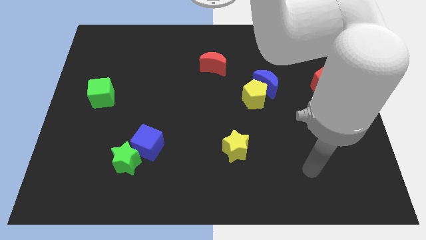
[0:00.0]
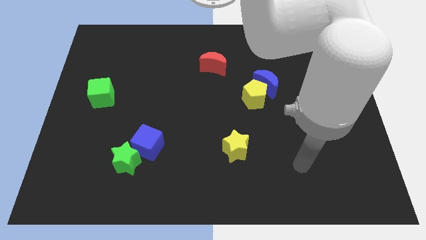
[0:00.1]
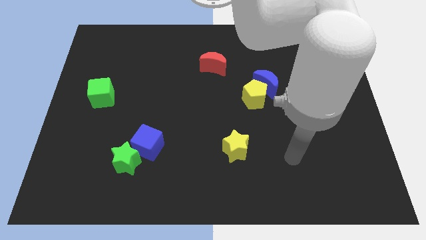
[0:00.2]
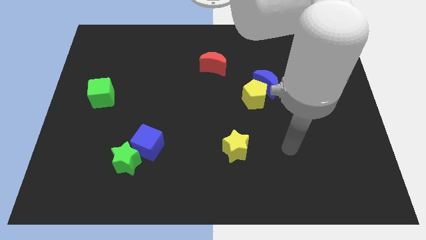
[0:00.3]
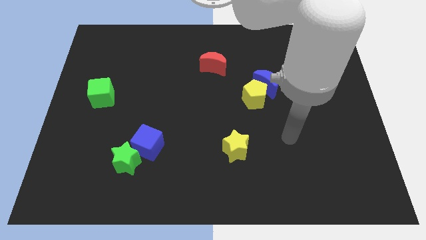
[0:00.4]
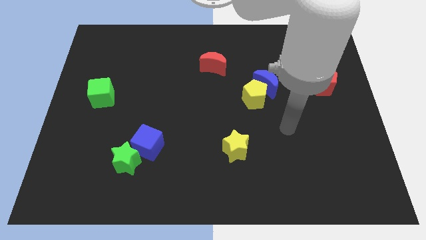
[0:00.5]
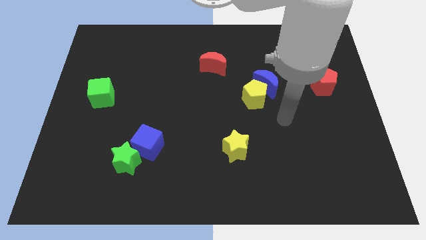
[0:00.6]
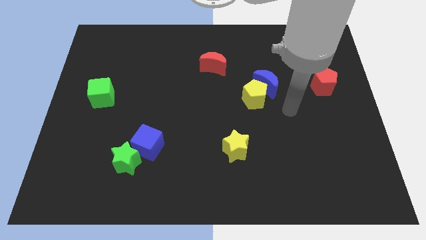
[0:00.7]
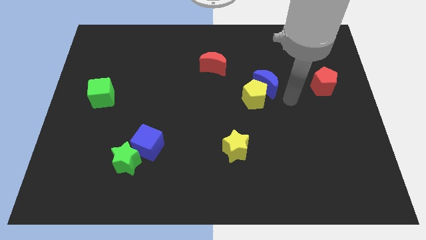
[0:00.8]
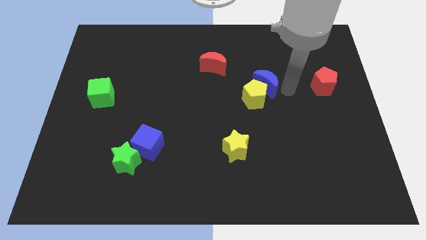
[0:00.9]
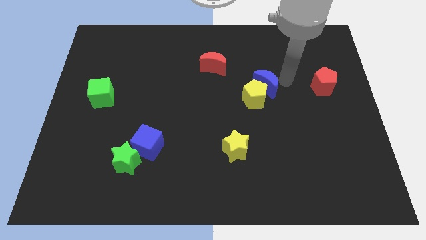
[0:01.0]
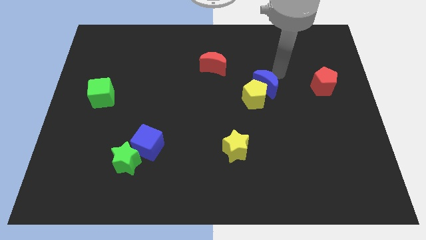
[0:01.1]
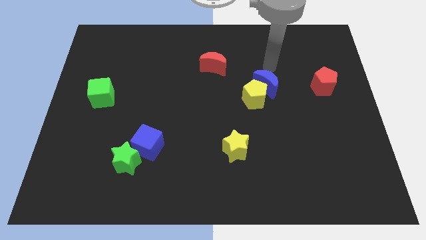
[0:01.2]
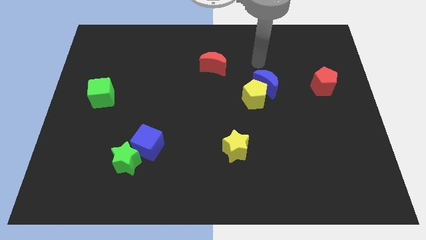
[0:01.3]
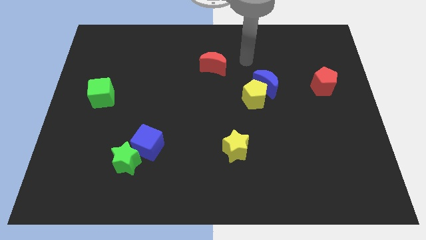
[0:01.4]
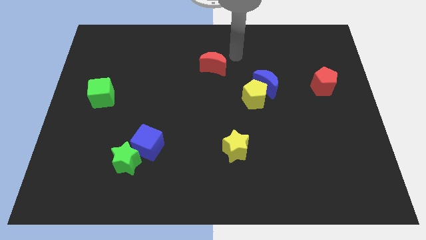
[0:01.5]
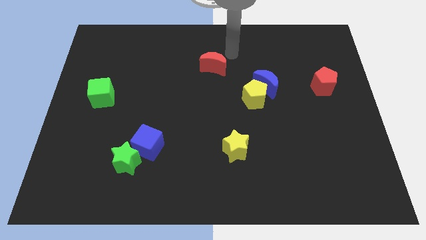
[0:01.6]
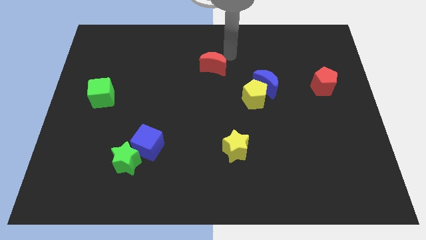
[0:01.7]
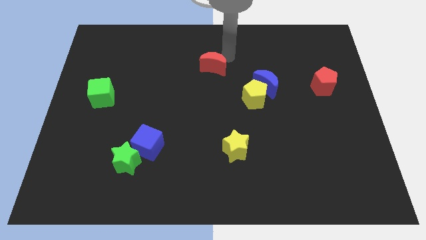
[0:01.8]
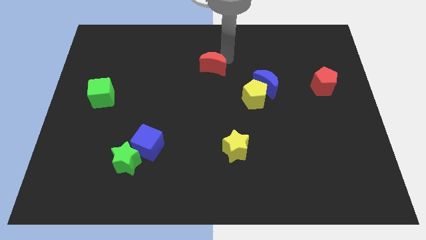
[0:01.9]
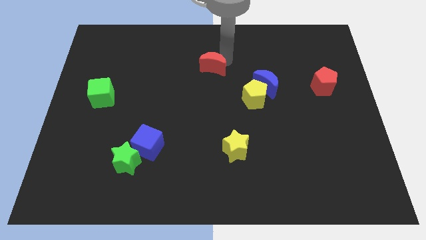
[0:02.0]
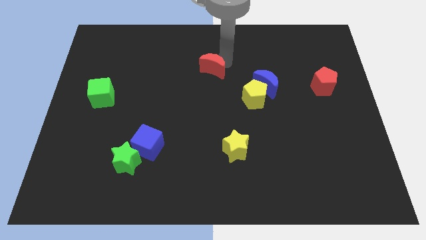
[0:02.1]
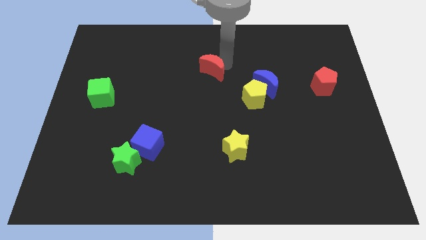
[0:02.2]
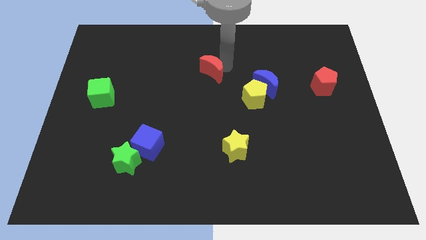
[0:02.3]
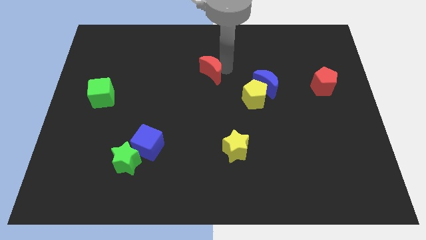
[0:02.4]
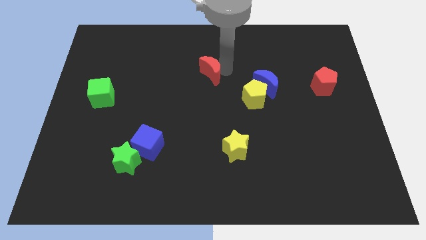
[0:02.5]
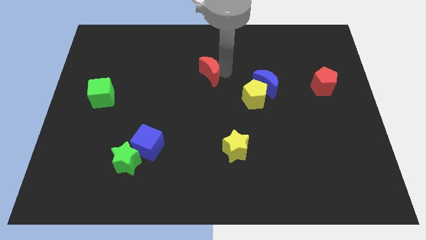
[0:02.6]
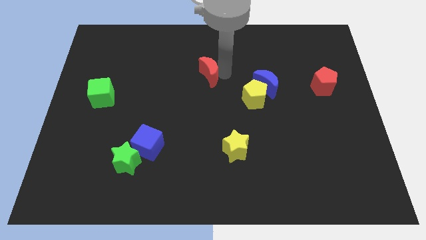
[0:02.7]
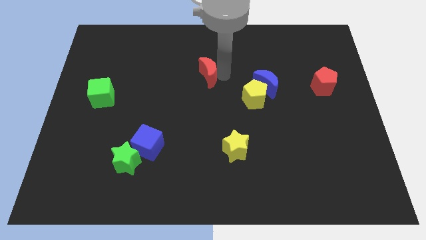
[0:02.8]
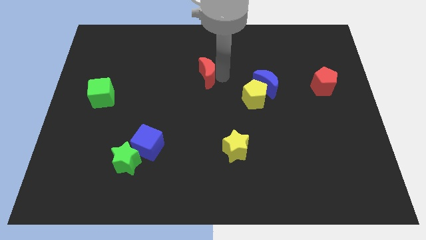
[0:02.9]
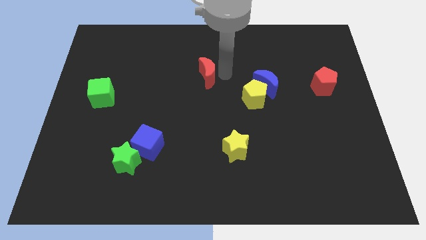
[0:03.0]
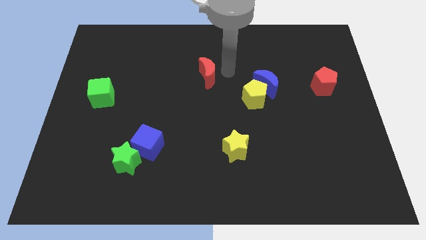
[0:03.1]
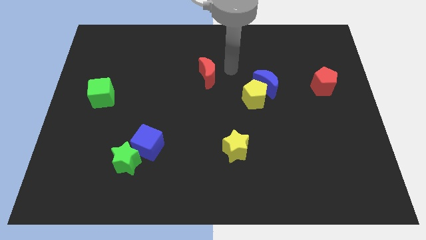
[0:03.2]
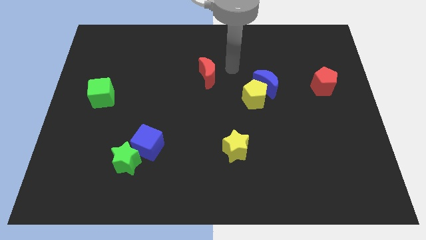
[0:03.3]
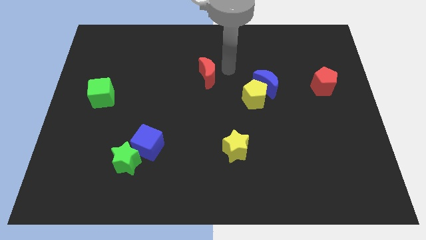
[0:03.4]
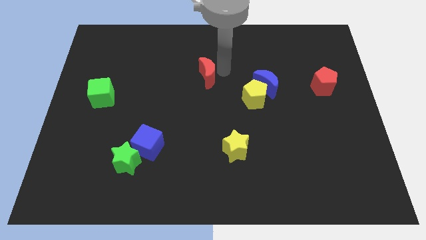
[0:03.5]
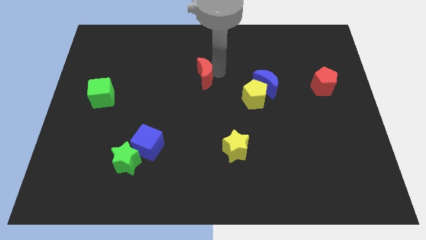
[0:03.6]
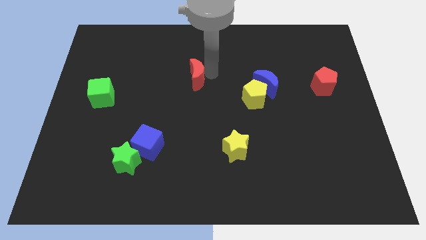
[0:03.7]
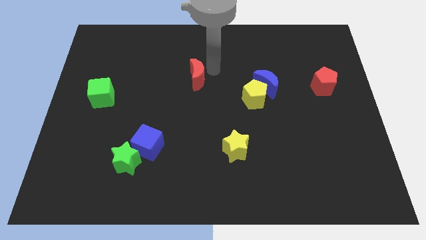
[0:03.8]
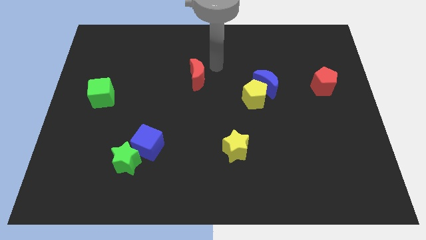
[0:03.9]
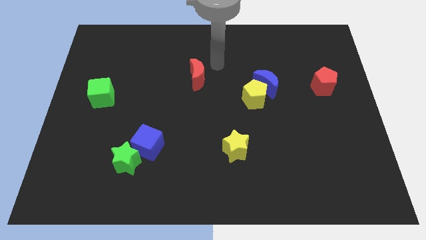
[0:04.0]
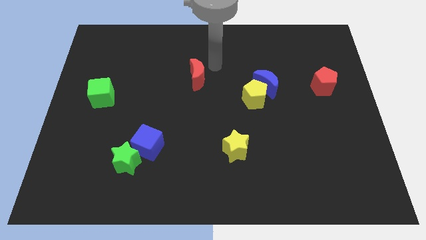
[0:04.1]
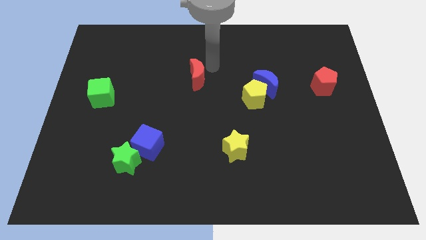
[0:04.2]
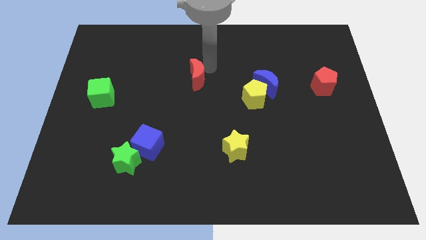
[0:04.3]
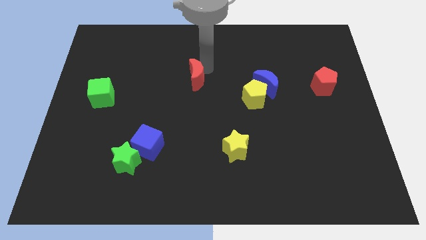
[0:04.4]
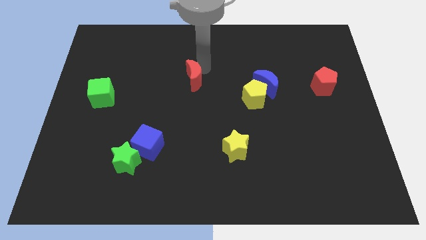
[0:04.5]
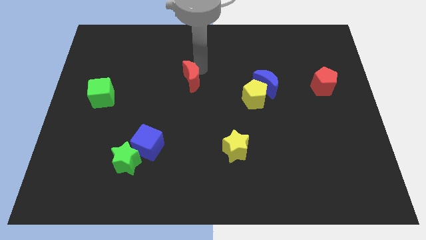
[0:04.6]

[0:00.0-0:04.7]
slightly move the red moon downwards and then to the left

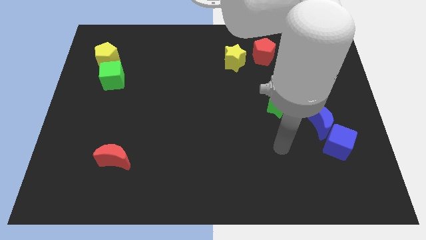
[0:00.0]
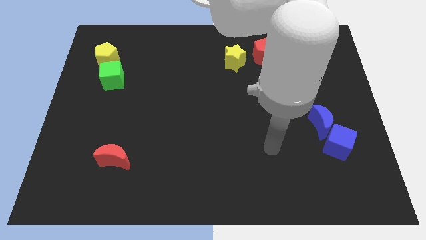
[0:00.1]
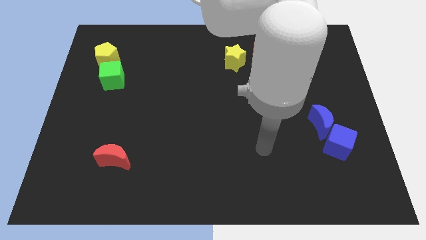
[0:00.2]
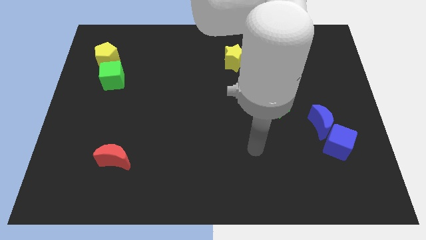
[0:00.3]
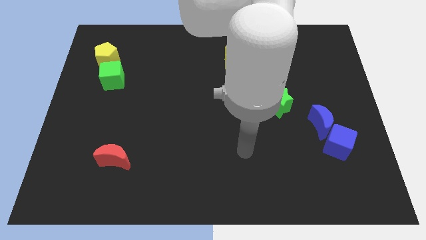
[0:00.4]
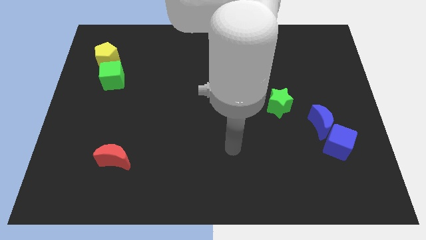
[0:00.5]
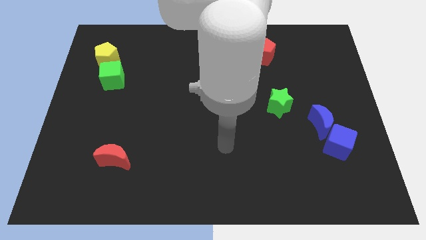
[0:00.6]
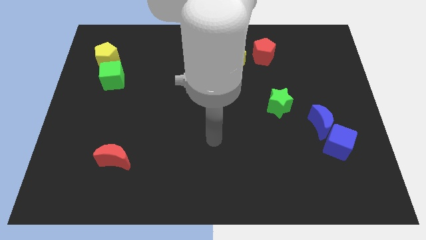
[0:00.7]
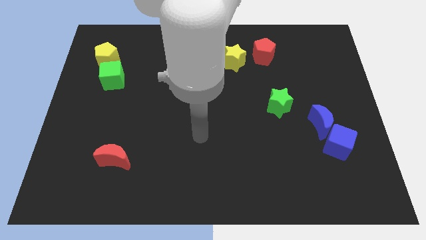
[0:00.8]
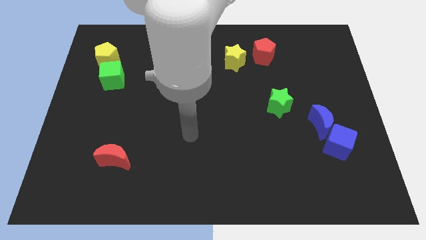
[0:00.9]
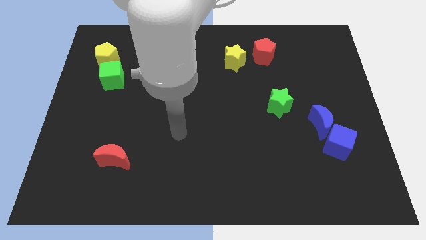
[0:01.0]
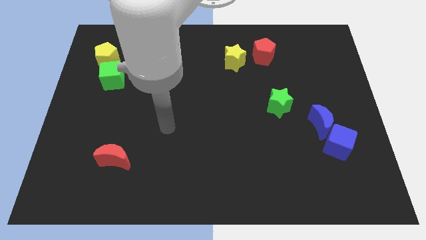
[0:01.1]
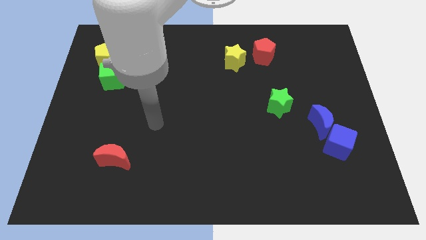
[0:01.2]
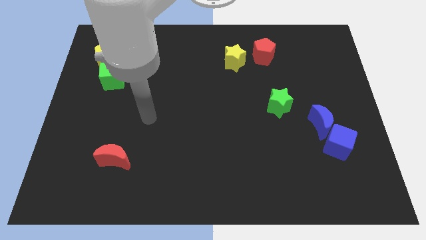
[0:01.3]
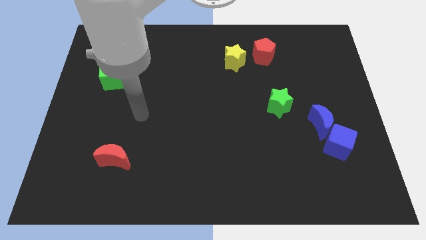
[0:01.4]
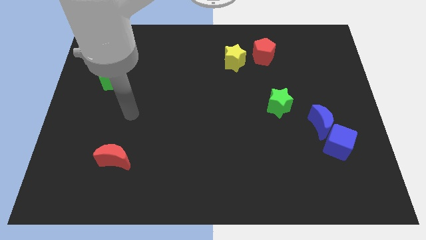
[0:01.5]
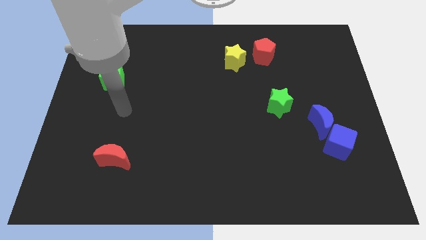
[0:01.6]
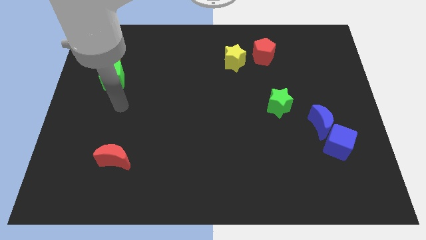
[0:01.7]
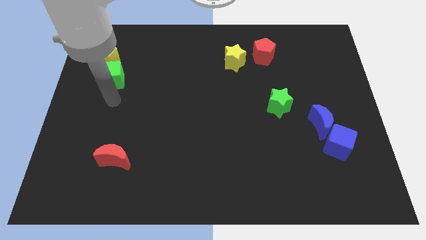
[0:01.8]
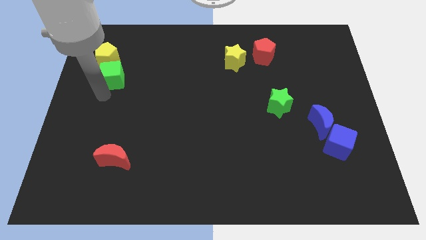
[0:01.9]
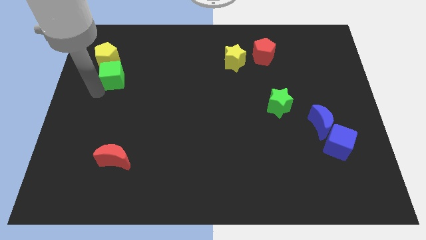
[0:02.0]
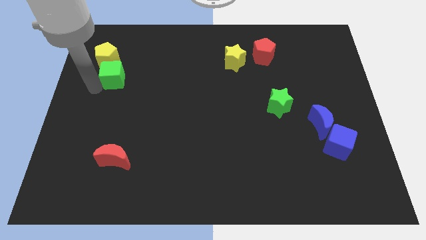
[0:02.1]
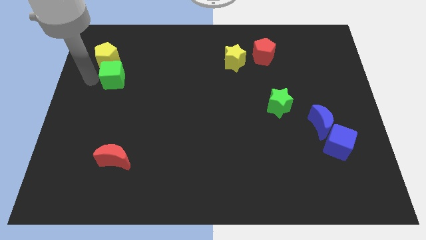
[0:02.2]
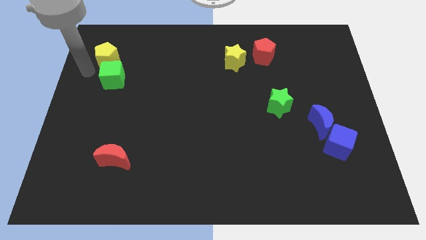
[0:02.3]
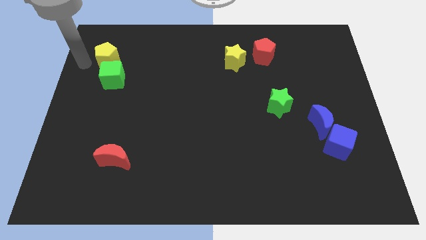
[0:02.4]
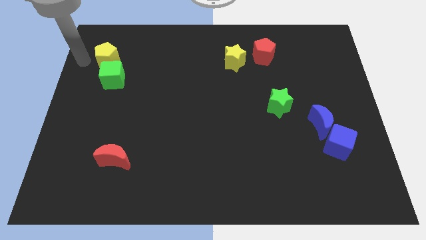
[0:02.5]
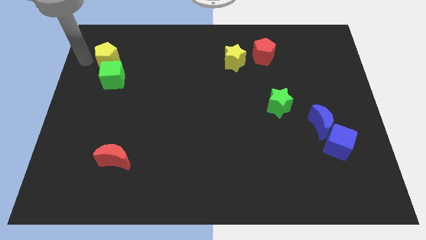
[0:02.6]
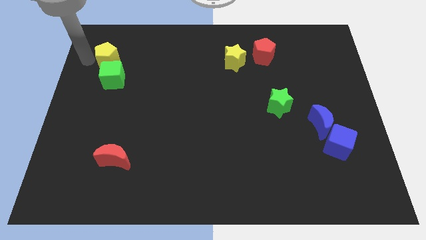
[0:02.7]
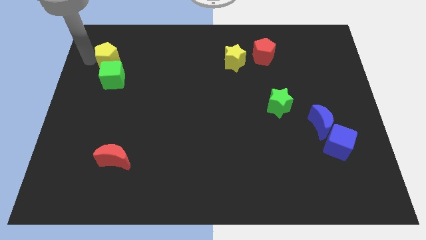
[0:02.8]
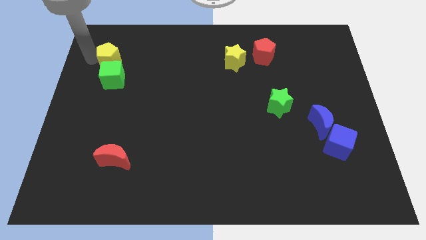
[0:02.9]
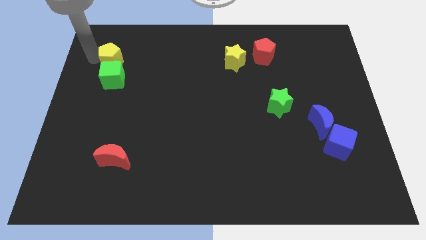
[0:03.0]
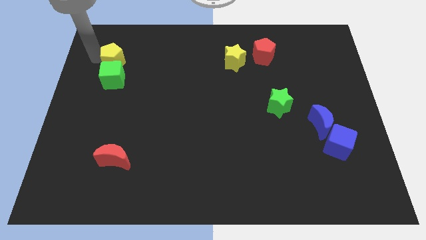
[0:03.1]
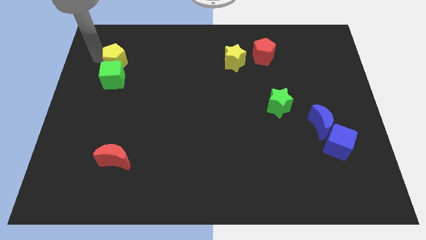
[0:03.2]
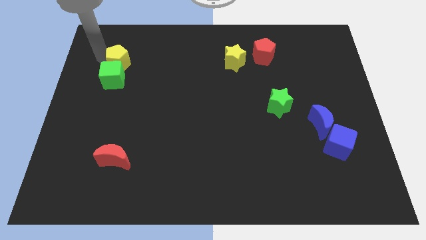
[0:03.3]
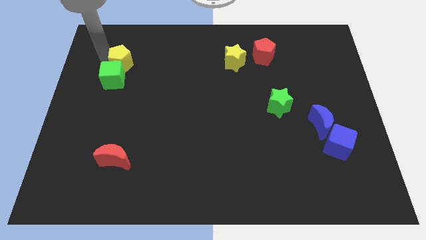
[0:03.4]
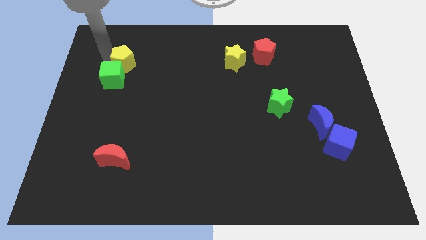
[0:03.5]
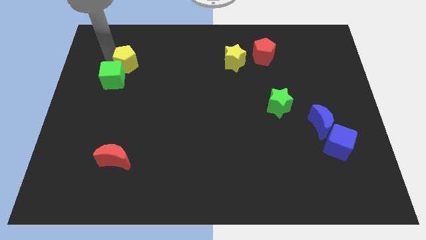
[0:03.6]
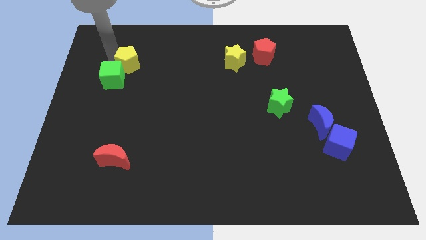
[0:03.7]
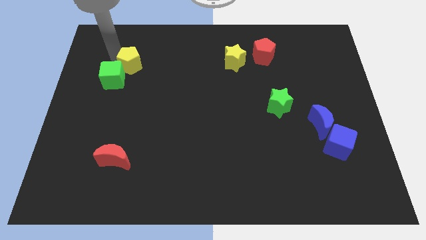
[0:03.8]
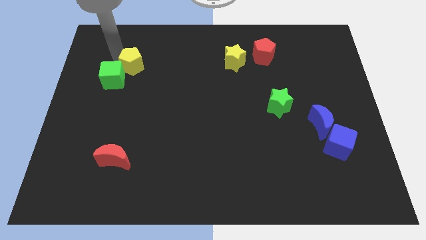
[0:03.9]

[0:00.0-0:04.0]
slide the yellow pentagon somewhat to the right

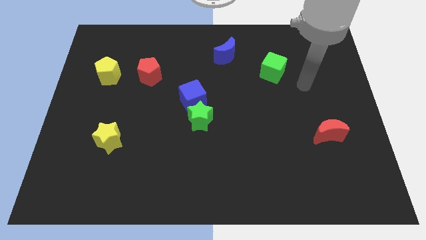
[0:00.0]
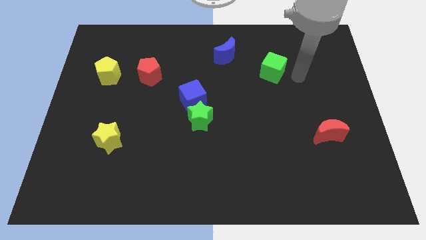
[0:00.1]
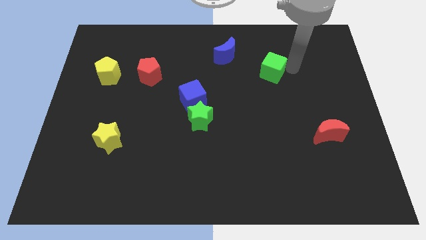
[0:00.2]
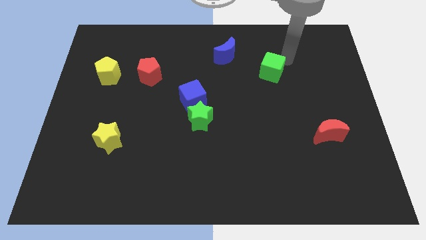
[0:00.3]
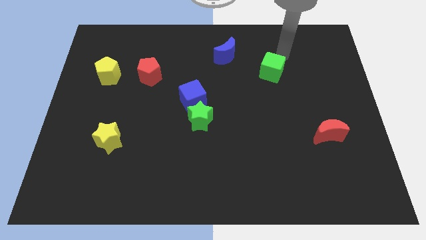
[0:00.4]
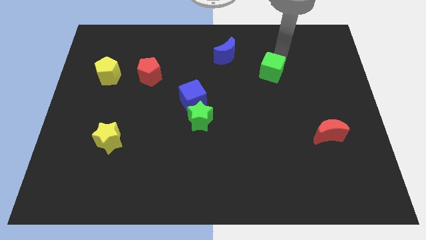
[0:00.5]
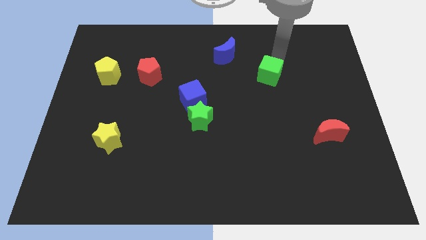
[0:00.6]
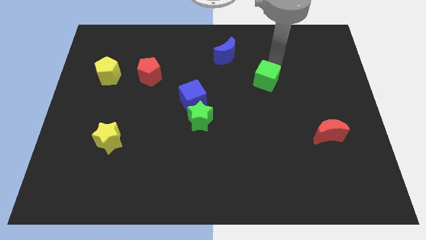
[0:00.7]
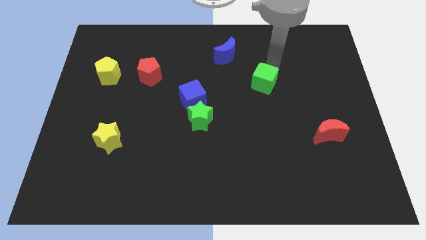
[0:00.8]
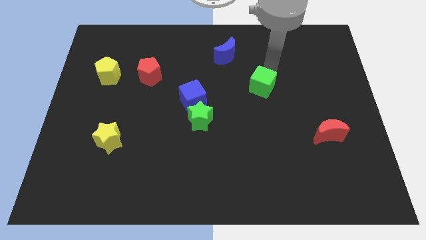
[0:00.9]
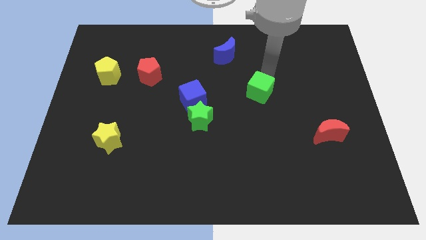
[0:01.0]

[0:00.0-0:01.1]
slightly push the green cube downwards and left
